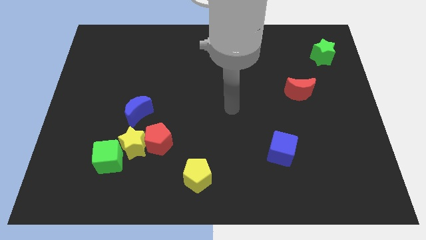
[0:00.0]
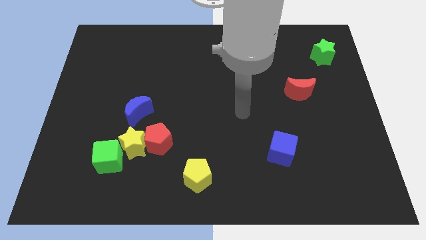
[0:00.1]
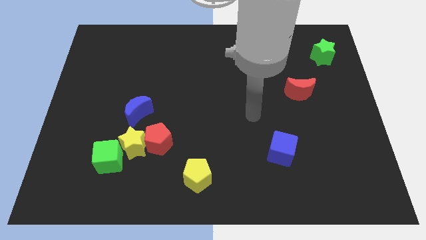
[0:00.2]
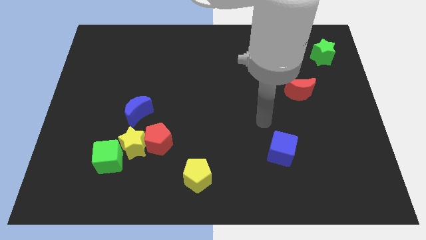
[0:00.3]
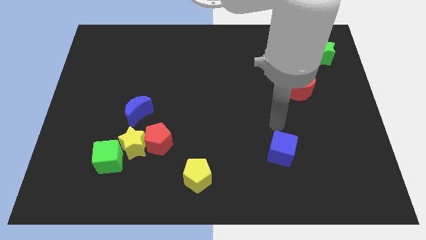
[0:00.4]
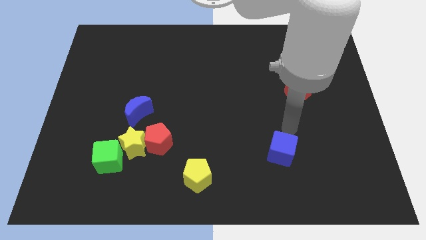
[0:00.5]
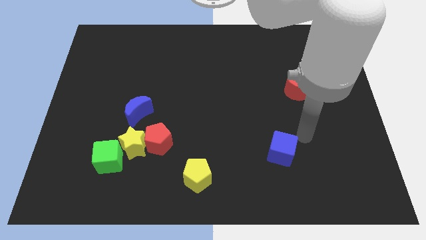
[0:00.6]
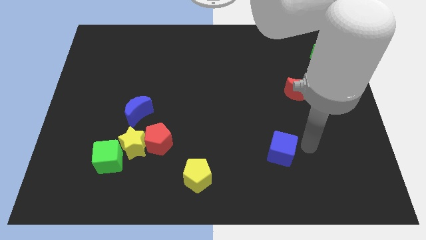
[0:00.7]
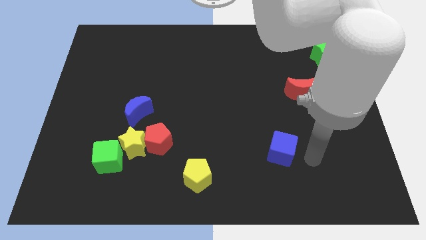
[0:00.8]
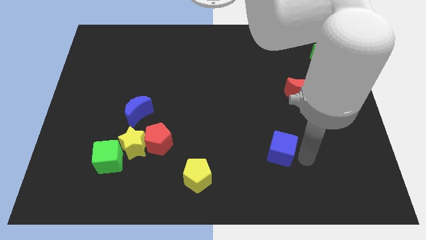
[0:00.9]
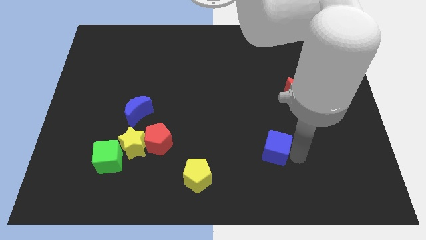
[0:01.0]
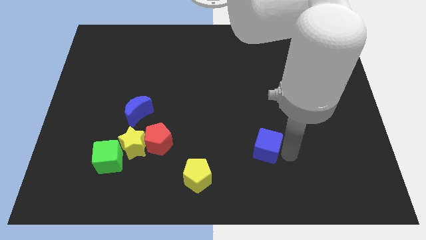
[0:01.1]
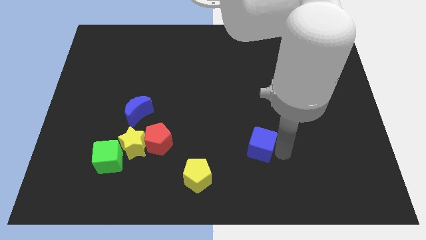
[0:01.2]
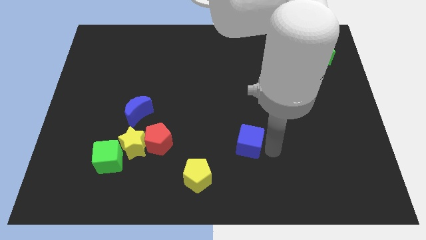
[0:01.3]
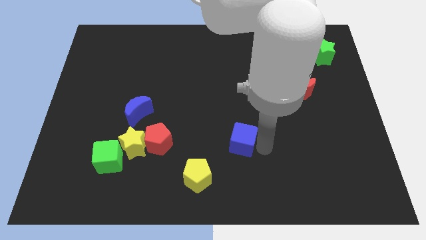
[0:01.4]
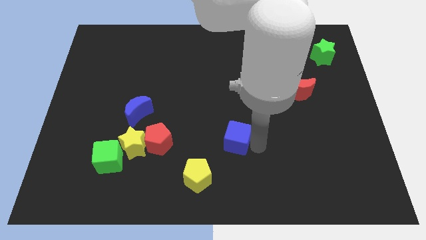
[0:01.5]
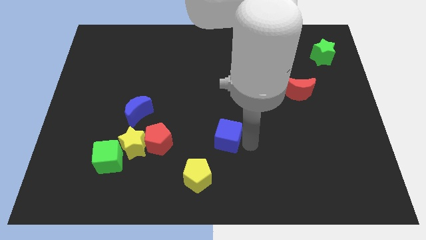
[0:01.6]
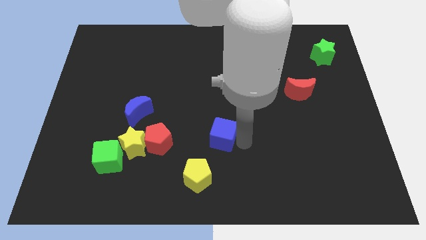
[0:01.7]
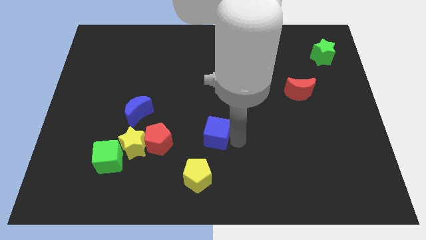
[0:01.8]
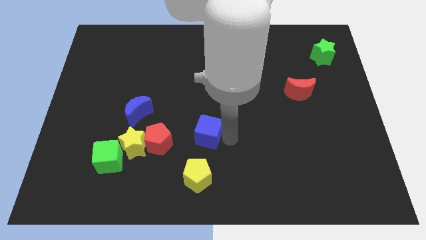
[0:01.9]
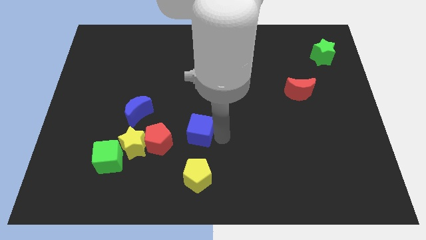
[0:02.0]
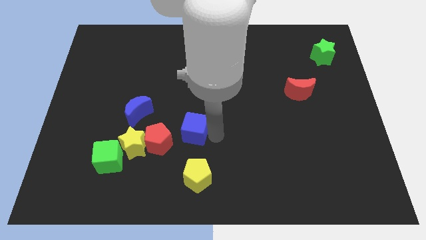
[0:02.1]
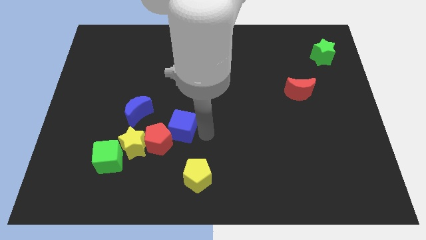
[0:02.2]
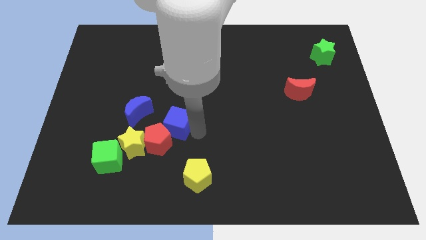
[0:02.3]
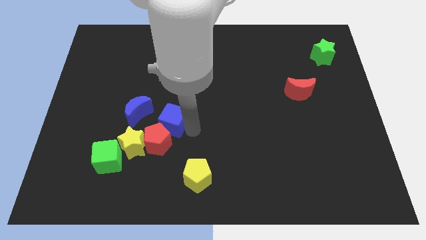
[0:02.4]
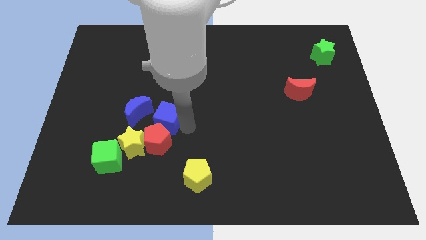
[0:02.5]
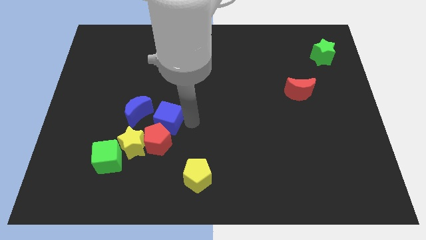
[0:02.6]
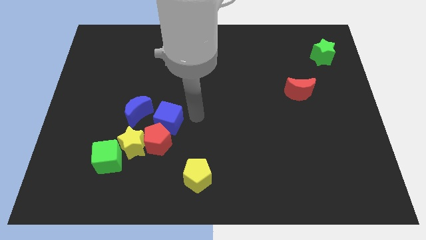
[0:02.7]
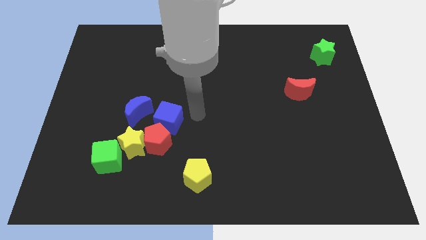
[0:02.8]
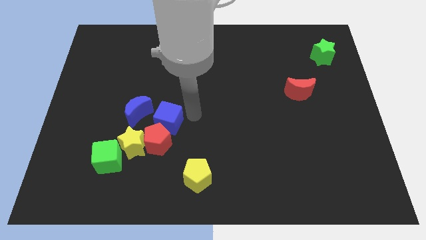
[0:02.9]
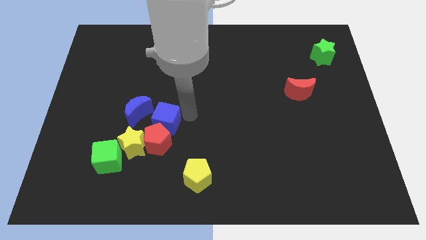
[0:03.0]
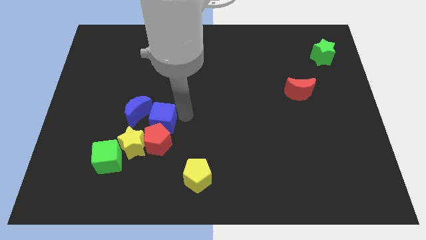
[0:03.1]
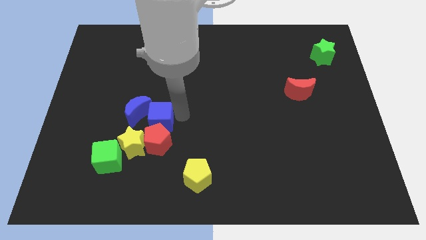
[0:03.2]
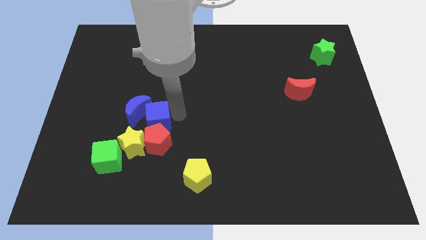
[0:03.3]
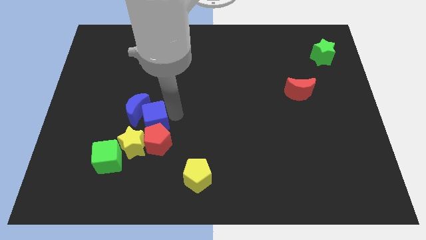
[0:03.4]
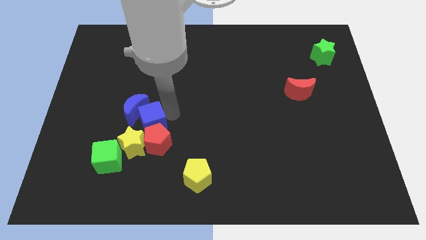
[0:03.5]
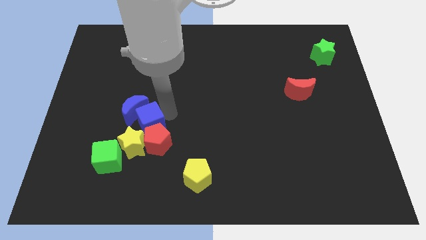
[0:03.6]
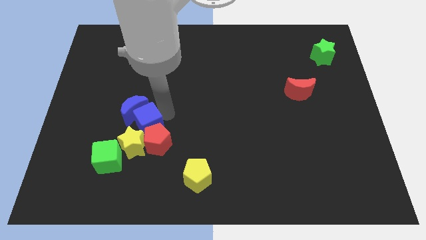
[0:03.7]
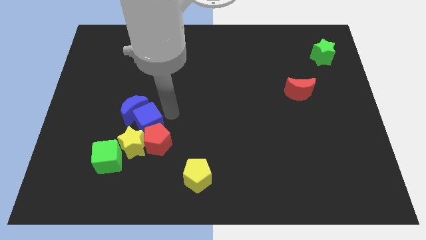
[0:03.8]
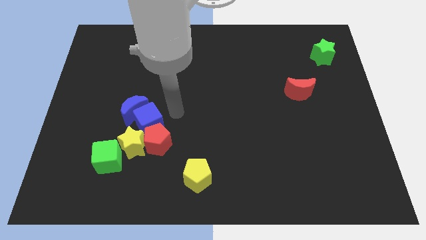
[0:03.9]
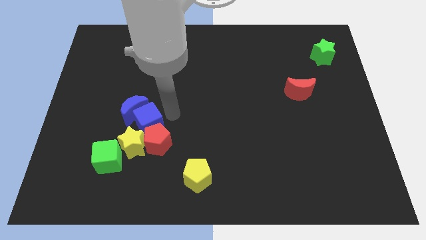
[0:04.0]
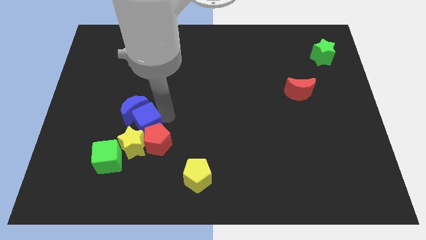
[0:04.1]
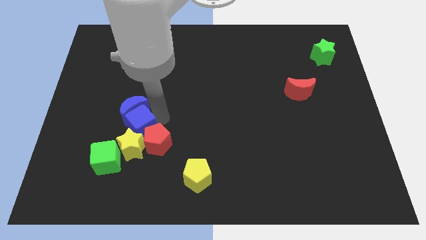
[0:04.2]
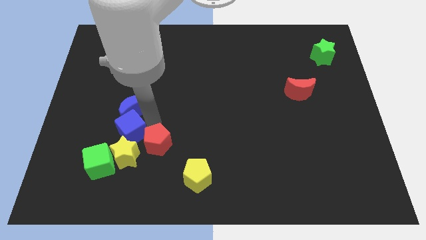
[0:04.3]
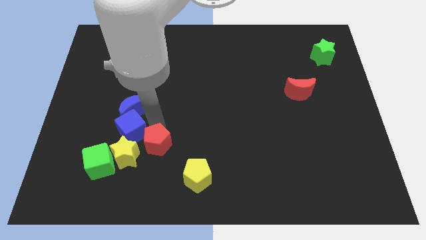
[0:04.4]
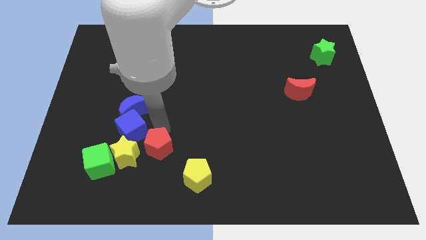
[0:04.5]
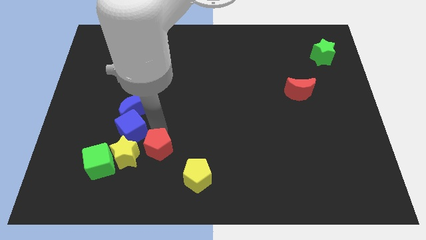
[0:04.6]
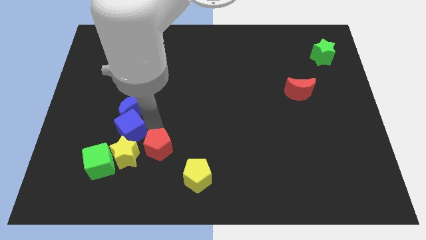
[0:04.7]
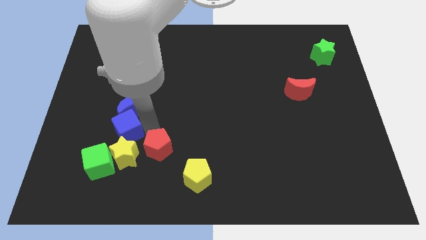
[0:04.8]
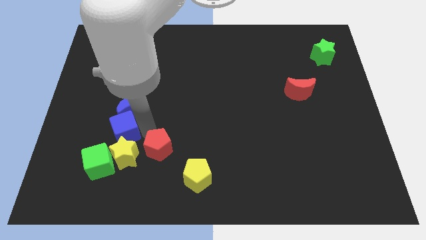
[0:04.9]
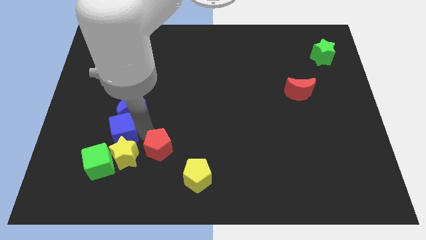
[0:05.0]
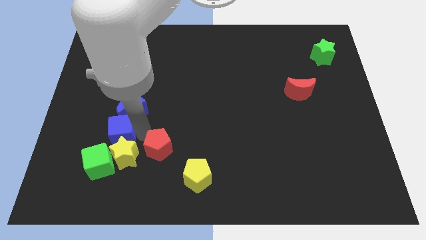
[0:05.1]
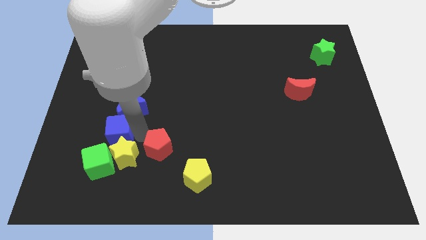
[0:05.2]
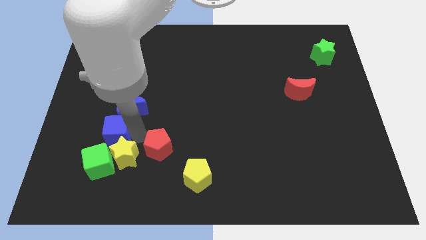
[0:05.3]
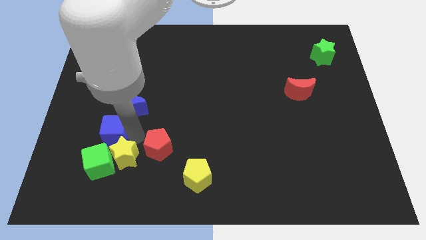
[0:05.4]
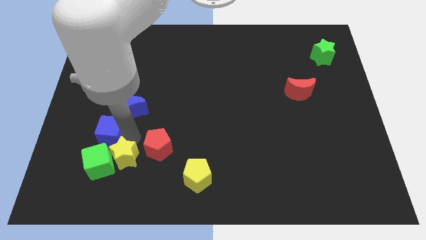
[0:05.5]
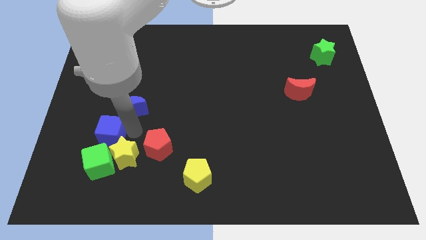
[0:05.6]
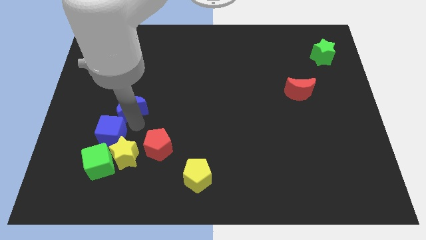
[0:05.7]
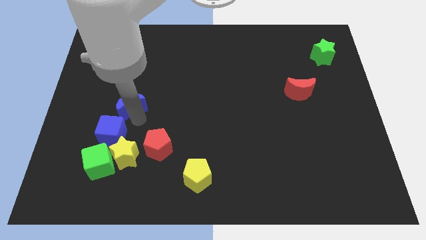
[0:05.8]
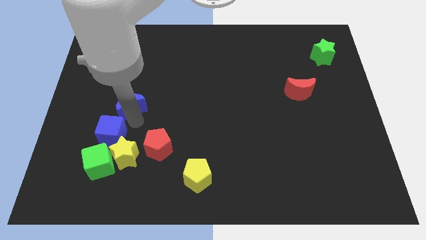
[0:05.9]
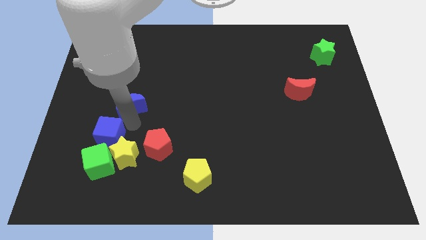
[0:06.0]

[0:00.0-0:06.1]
move the blue cube just left of the yellow star
